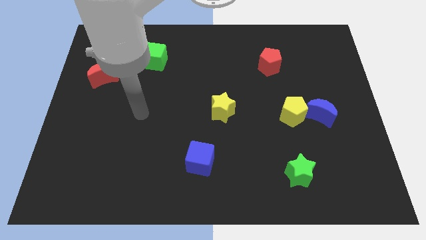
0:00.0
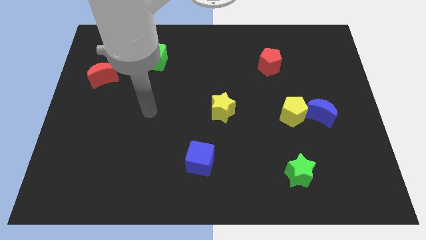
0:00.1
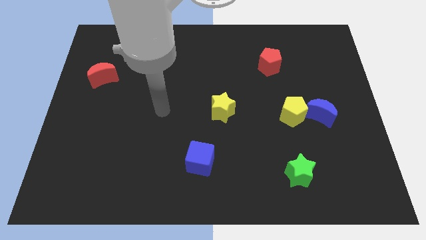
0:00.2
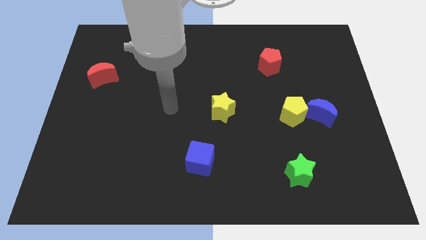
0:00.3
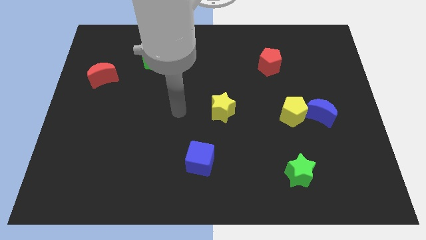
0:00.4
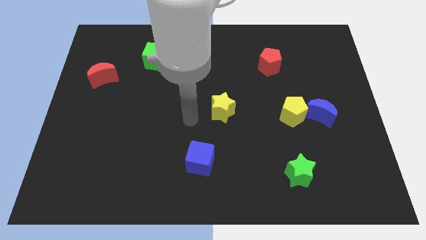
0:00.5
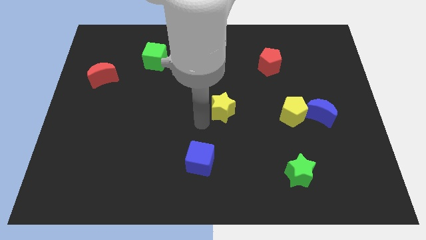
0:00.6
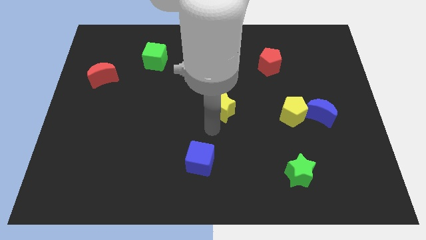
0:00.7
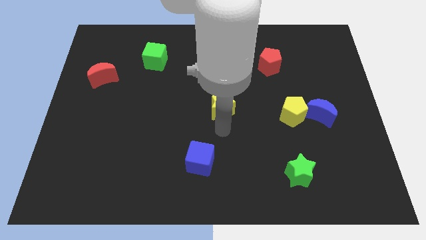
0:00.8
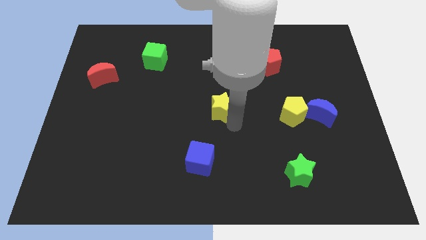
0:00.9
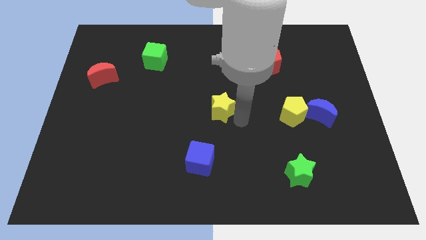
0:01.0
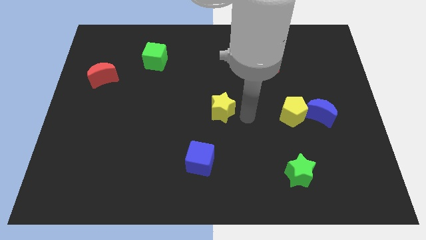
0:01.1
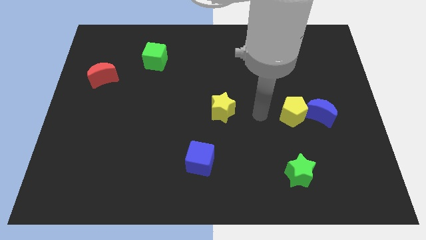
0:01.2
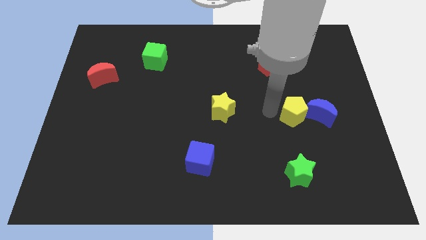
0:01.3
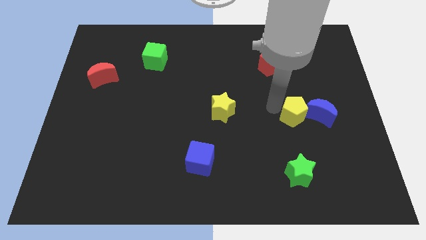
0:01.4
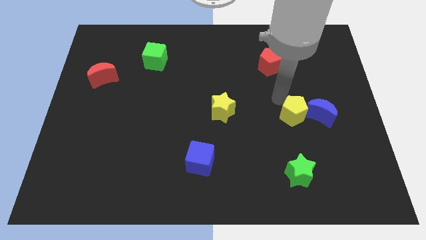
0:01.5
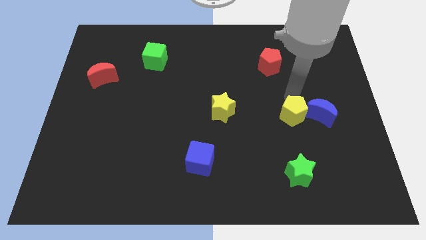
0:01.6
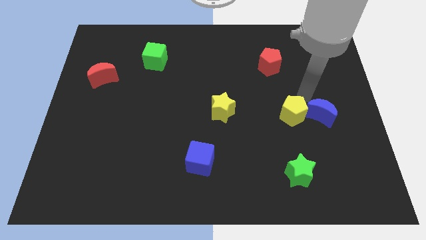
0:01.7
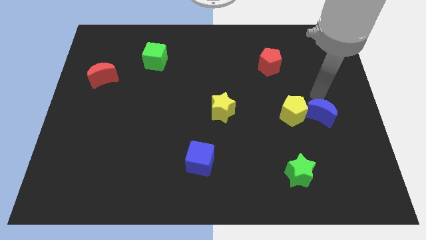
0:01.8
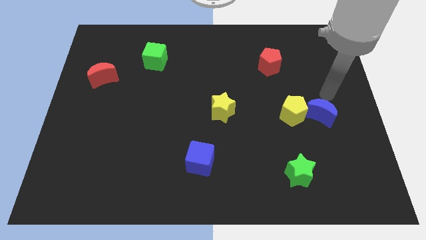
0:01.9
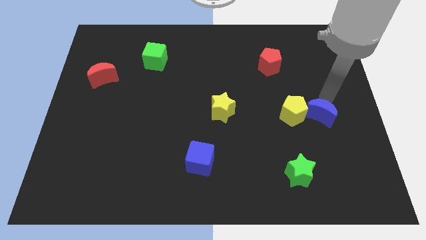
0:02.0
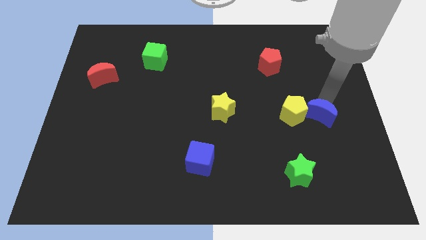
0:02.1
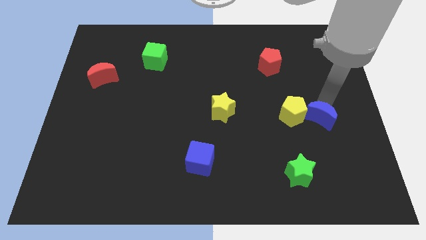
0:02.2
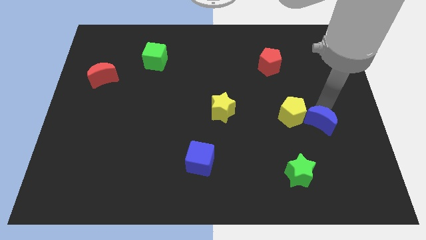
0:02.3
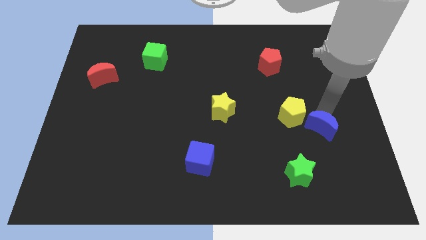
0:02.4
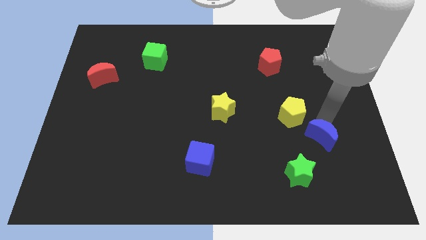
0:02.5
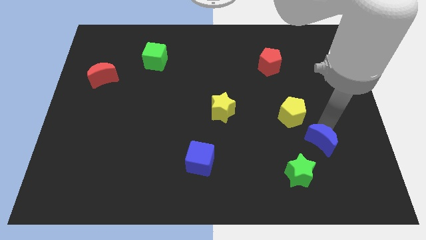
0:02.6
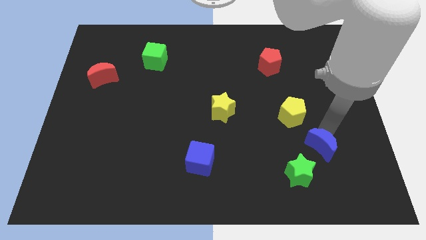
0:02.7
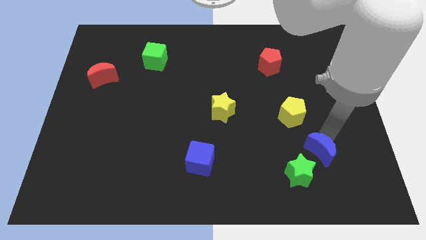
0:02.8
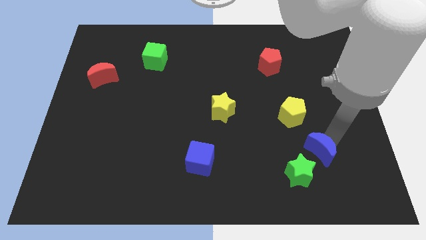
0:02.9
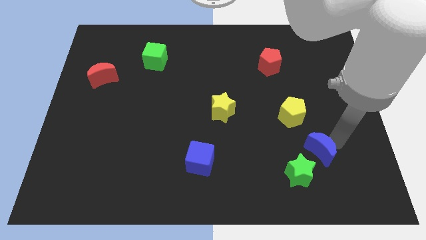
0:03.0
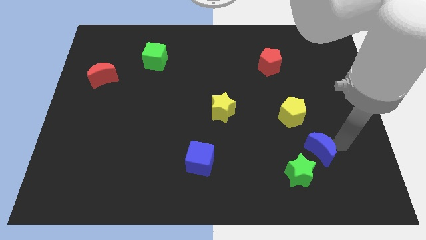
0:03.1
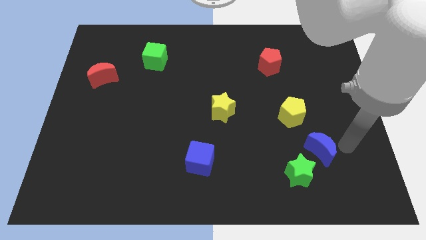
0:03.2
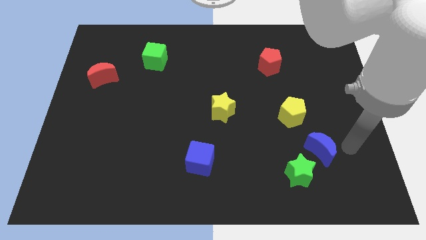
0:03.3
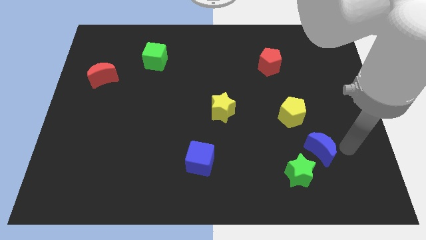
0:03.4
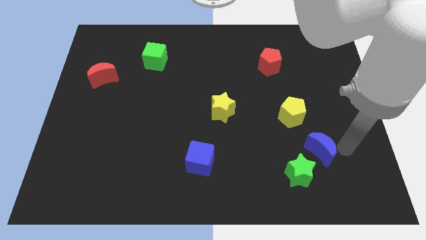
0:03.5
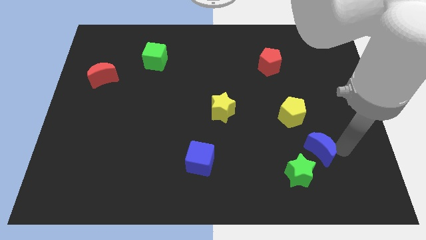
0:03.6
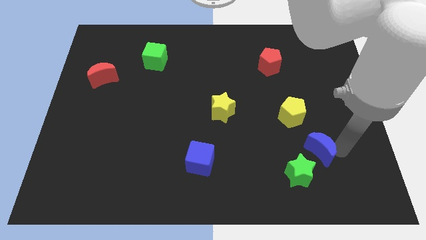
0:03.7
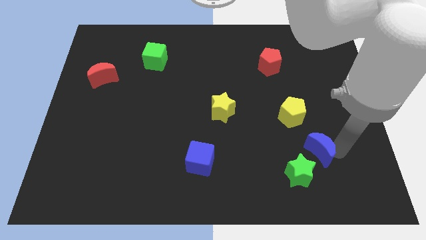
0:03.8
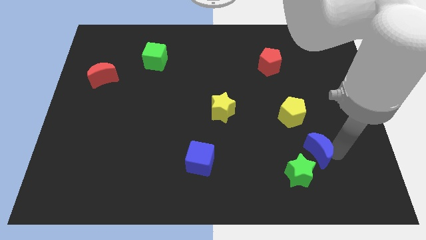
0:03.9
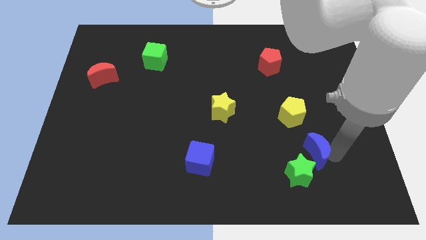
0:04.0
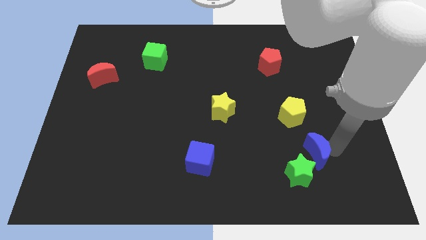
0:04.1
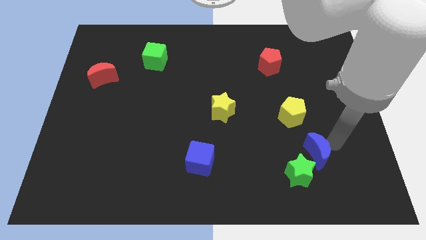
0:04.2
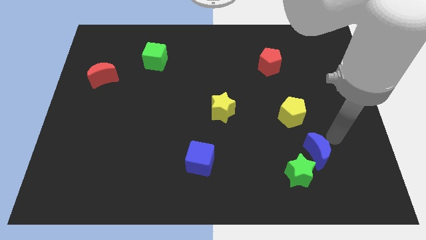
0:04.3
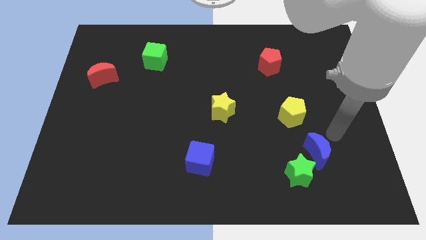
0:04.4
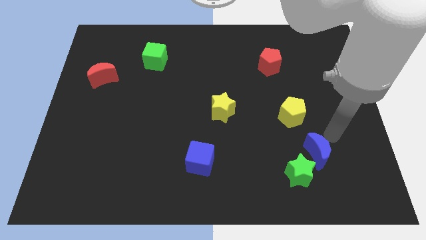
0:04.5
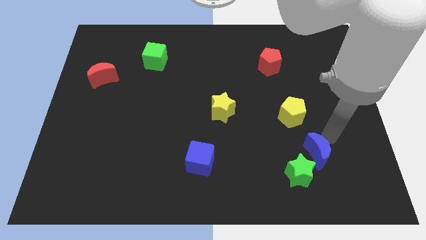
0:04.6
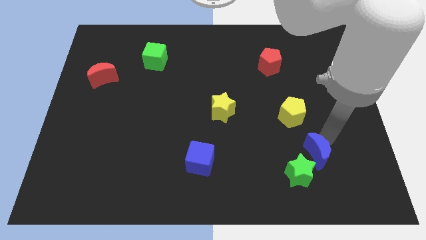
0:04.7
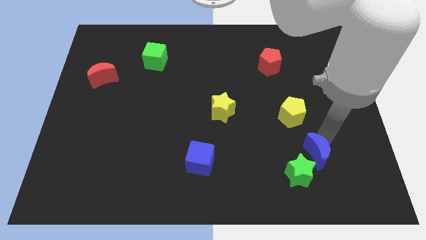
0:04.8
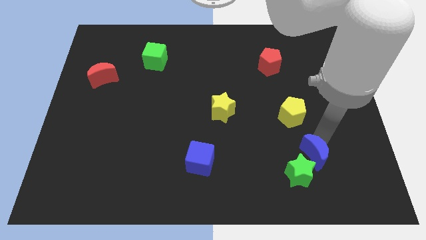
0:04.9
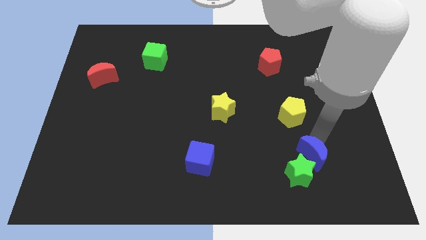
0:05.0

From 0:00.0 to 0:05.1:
put the blue moon towards the green star

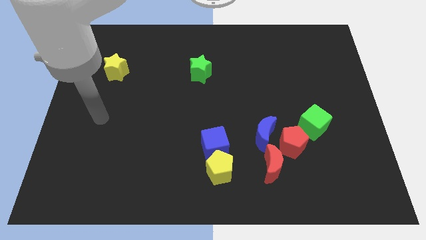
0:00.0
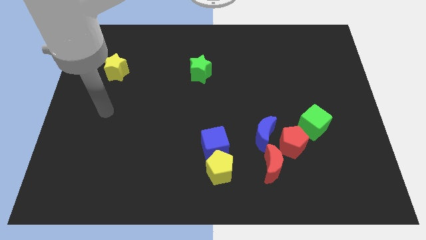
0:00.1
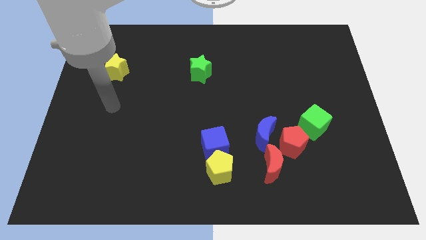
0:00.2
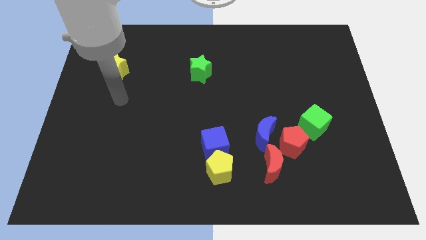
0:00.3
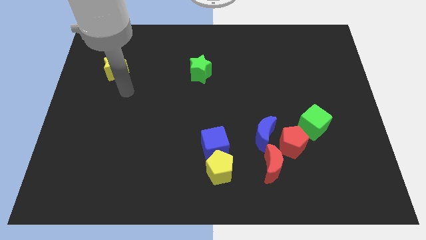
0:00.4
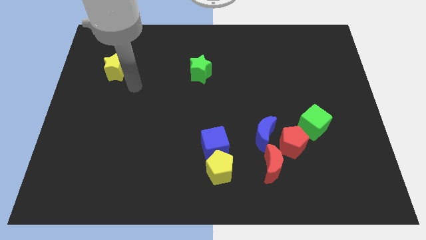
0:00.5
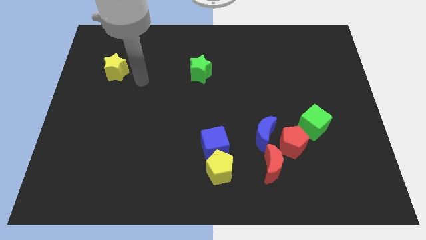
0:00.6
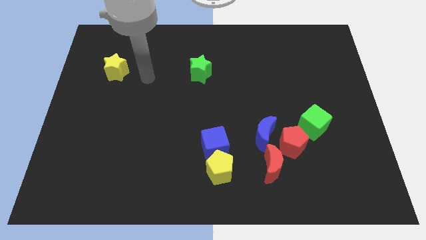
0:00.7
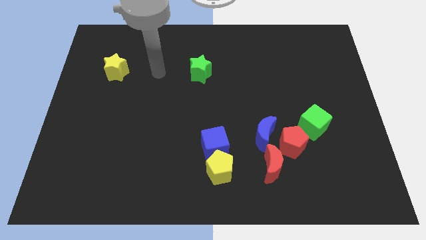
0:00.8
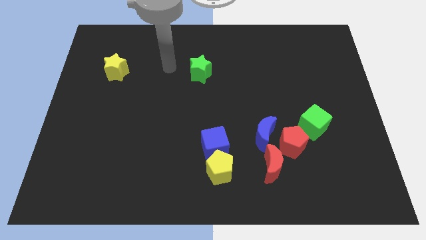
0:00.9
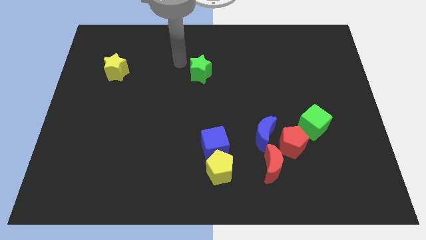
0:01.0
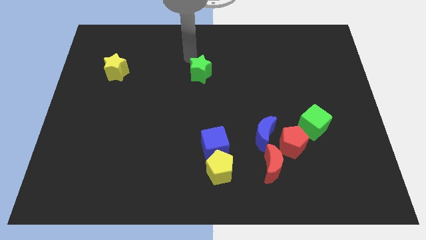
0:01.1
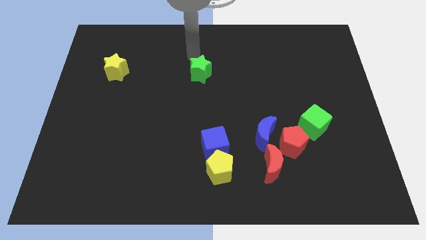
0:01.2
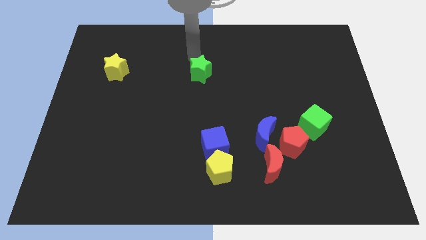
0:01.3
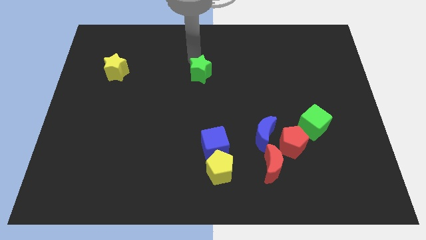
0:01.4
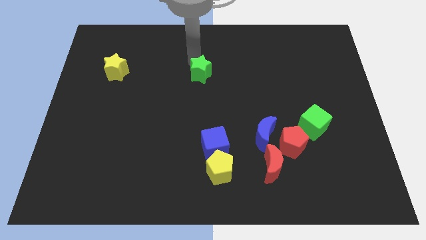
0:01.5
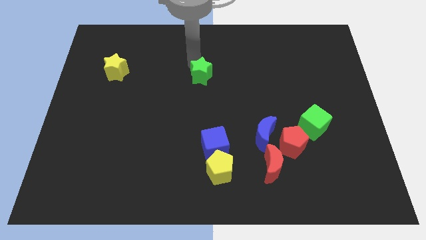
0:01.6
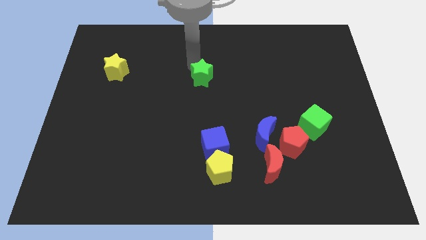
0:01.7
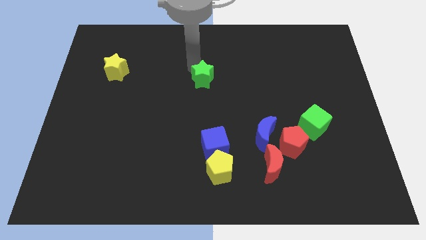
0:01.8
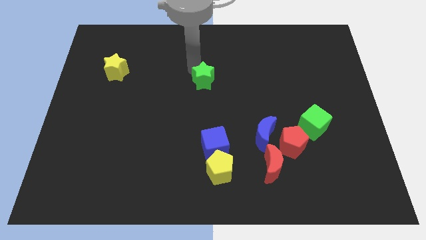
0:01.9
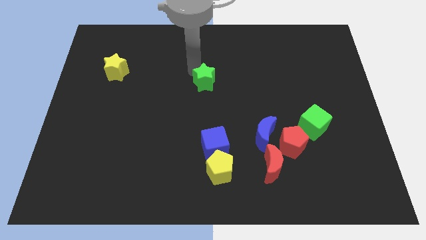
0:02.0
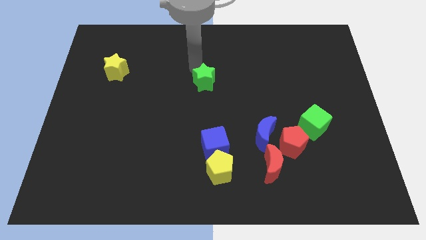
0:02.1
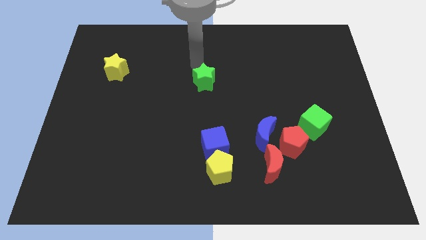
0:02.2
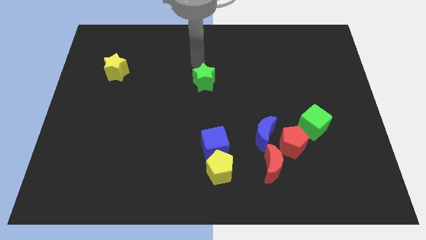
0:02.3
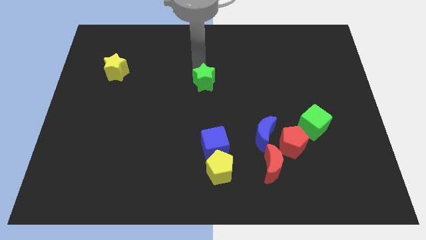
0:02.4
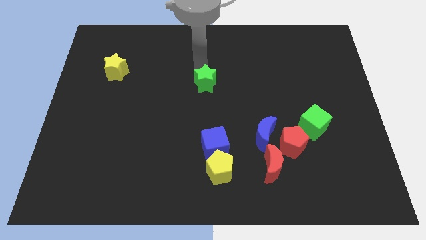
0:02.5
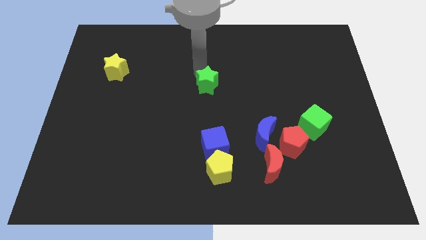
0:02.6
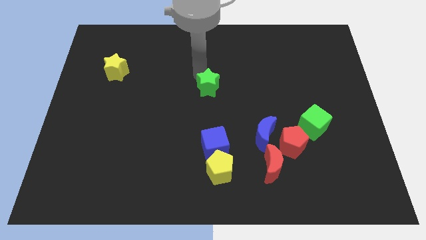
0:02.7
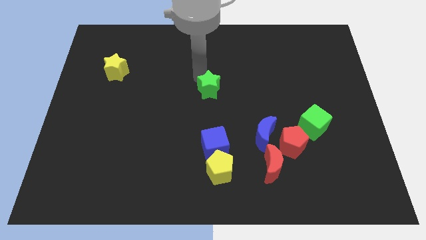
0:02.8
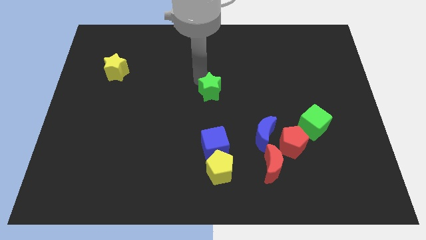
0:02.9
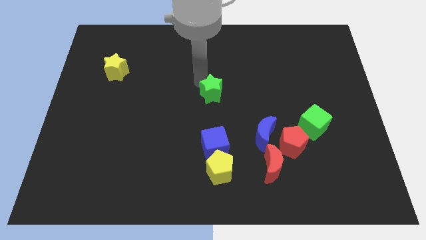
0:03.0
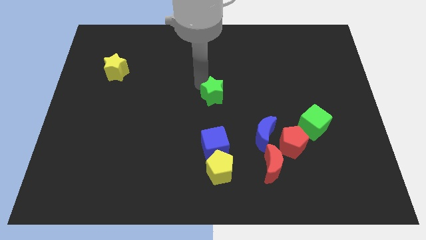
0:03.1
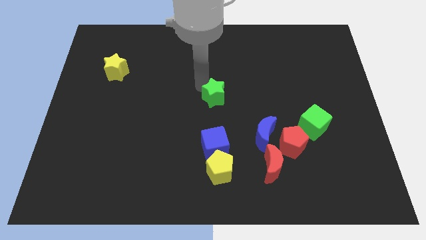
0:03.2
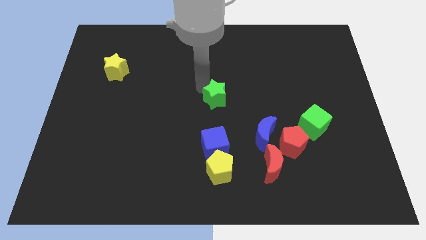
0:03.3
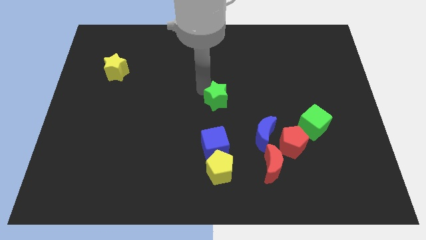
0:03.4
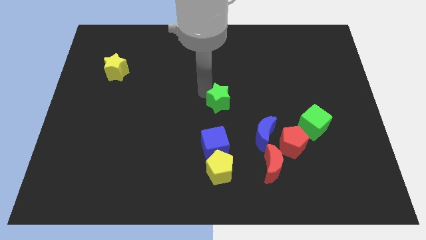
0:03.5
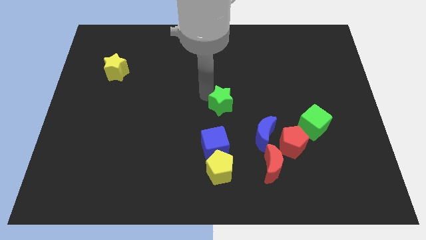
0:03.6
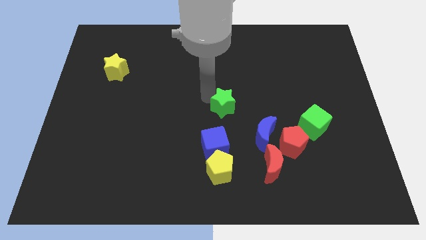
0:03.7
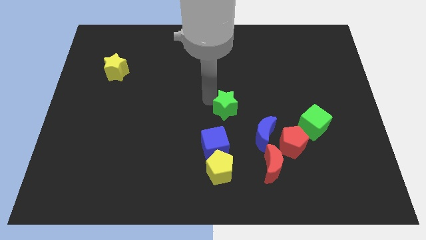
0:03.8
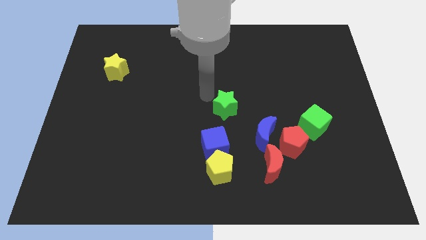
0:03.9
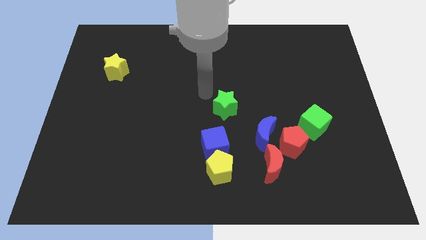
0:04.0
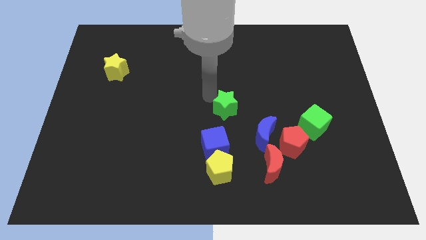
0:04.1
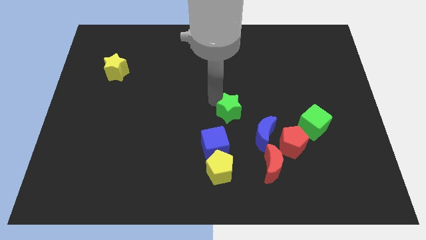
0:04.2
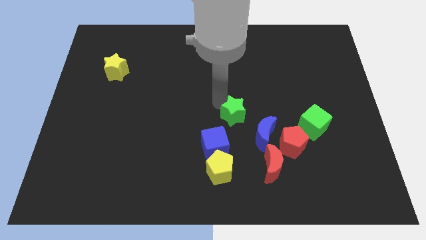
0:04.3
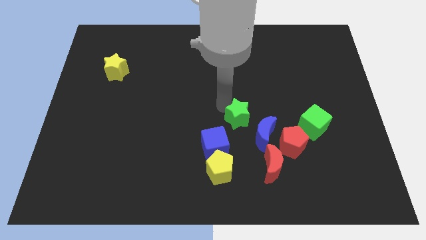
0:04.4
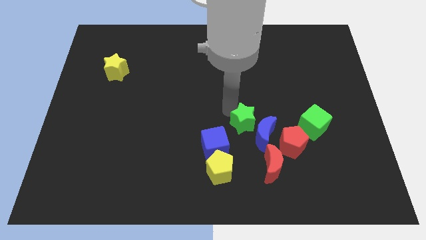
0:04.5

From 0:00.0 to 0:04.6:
slide the green star close to the blue moon
